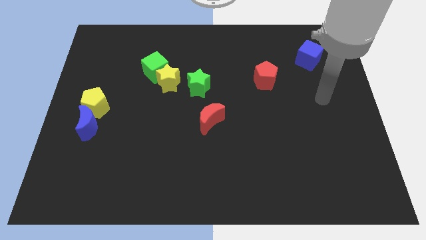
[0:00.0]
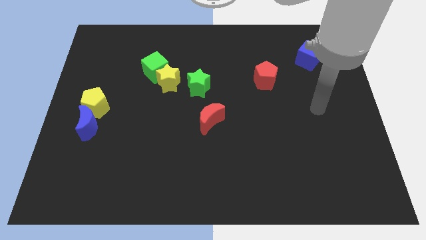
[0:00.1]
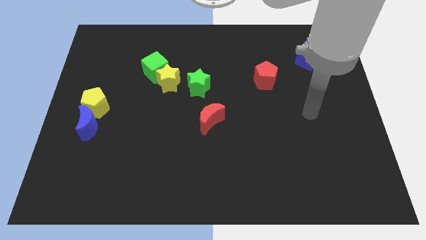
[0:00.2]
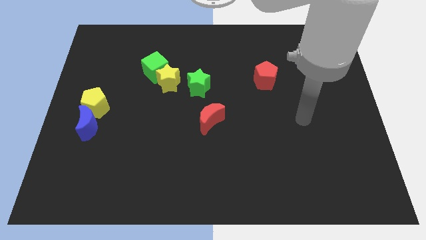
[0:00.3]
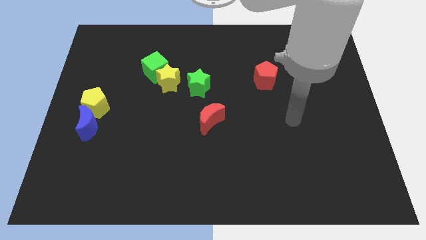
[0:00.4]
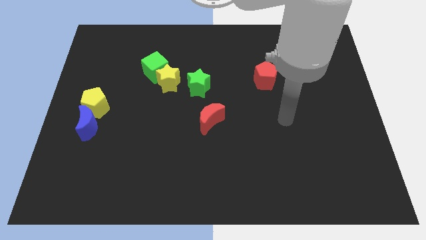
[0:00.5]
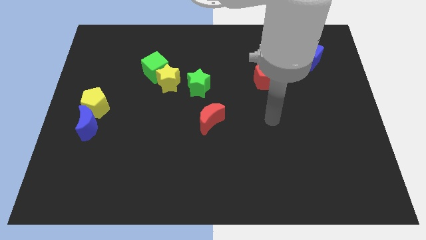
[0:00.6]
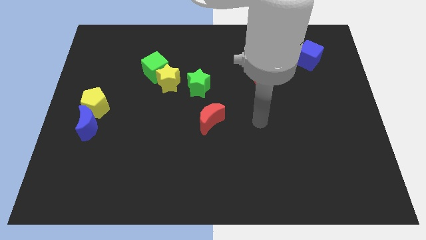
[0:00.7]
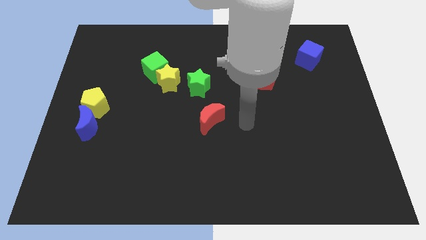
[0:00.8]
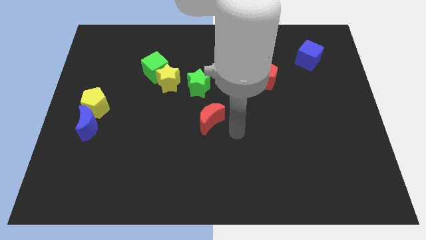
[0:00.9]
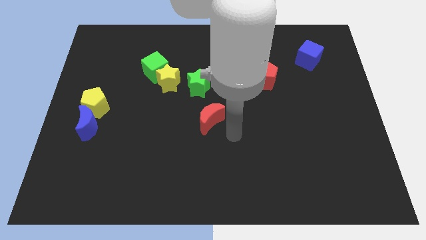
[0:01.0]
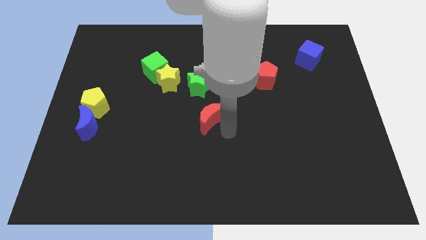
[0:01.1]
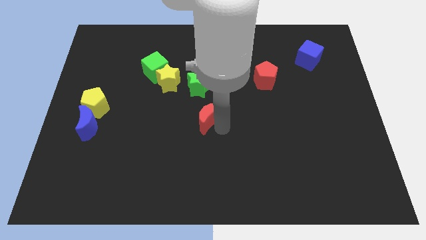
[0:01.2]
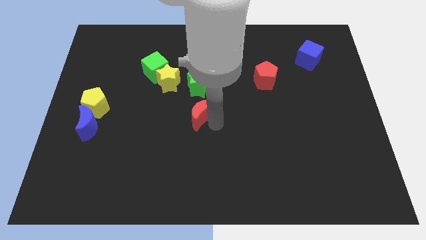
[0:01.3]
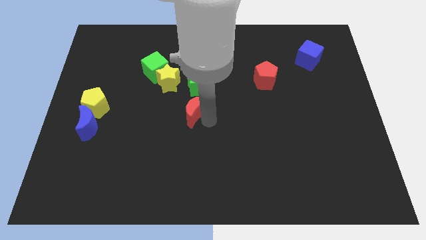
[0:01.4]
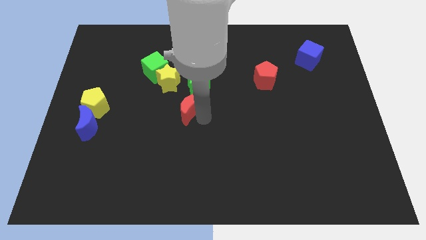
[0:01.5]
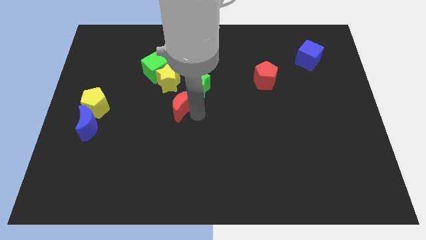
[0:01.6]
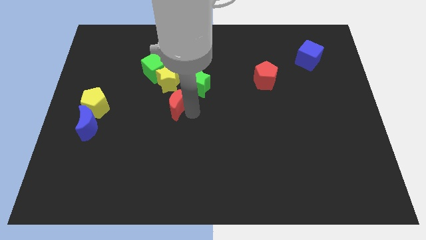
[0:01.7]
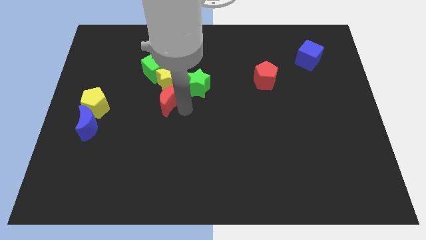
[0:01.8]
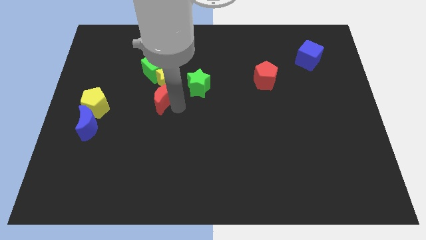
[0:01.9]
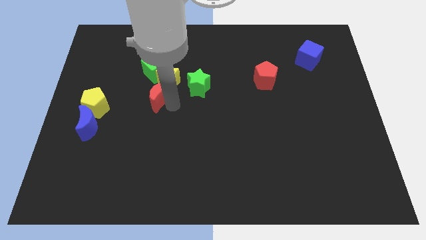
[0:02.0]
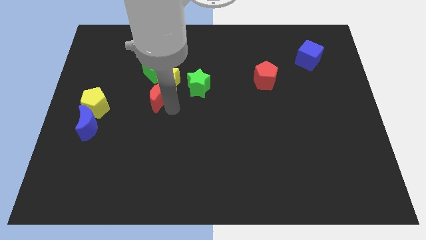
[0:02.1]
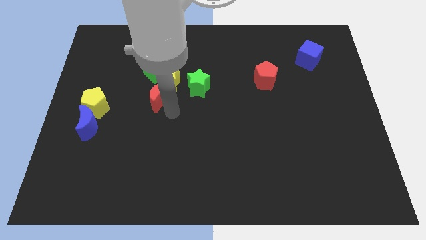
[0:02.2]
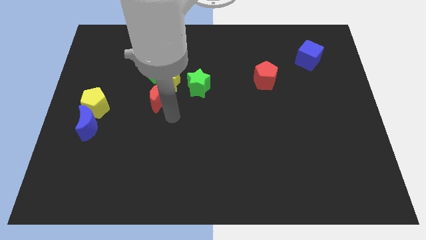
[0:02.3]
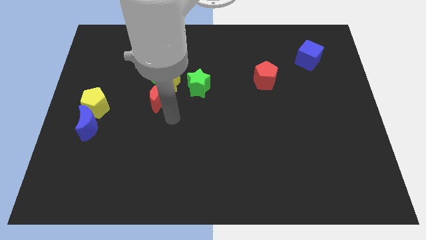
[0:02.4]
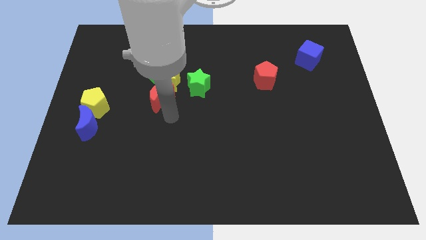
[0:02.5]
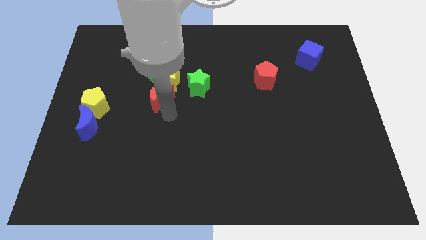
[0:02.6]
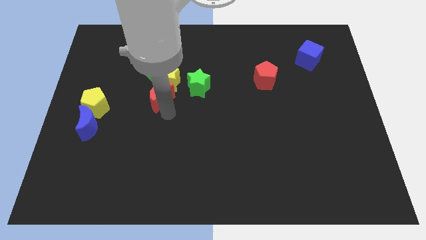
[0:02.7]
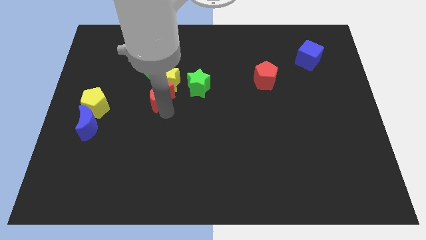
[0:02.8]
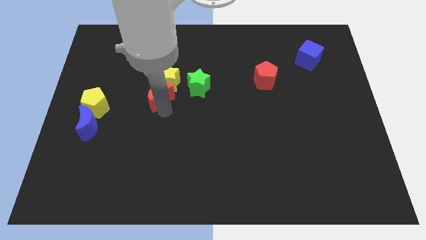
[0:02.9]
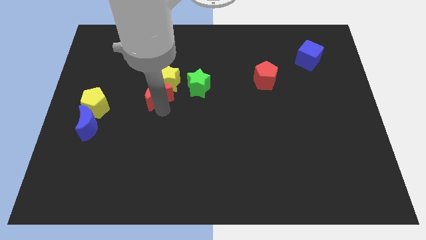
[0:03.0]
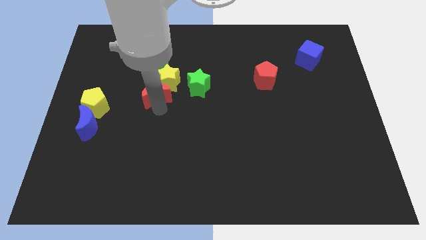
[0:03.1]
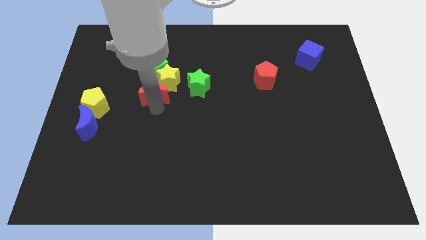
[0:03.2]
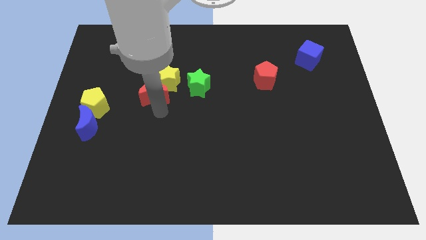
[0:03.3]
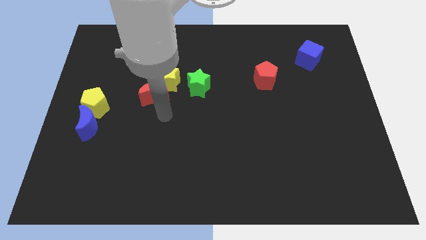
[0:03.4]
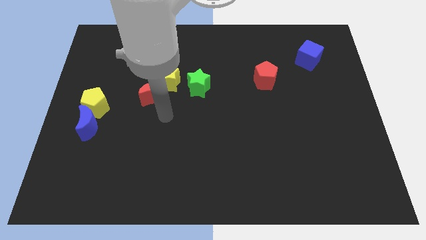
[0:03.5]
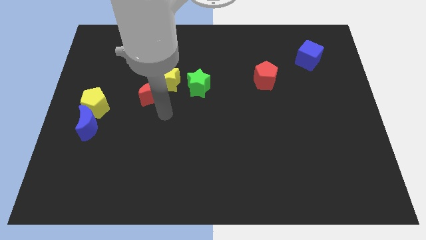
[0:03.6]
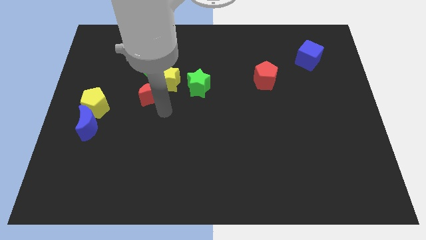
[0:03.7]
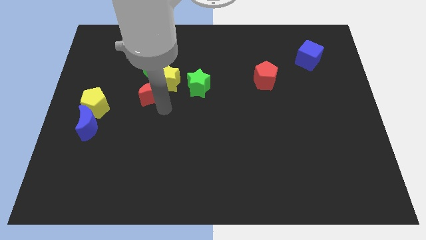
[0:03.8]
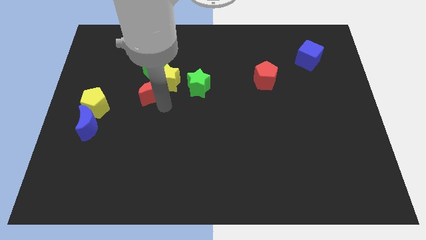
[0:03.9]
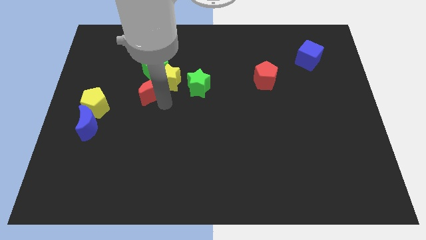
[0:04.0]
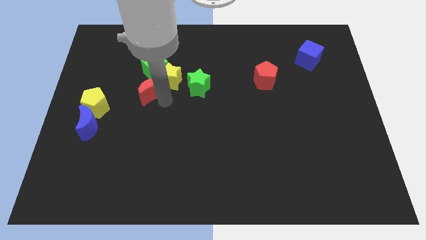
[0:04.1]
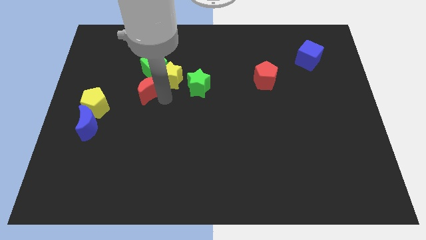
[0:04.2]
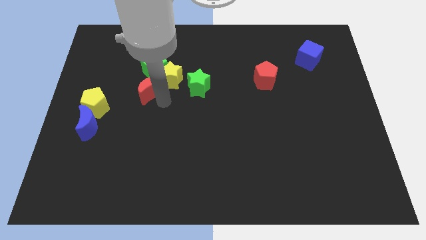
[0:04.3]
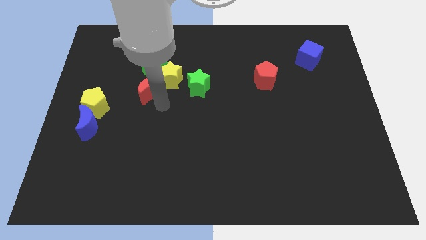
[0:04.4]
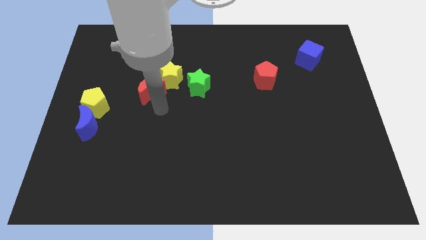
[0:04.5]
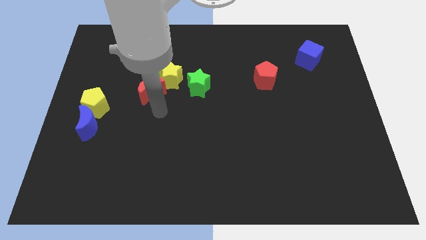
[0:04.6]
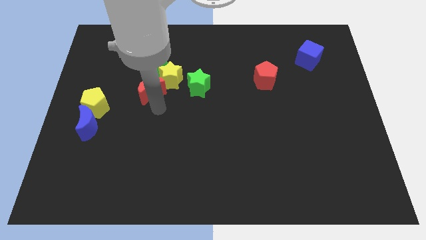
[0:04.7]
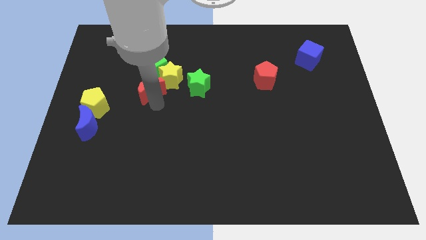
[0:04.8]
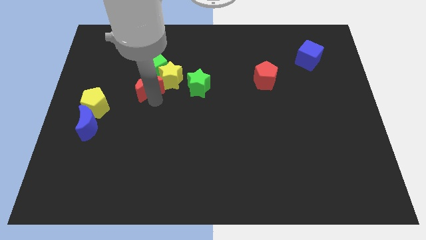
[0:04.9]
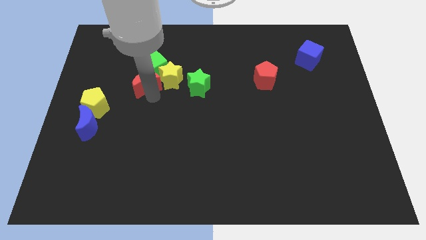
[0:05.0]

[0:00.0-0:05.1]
put the red moon towards the green cube

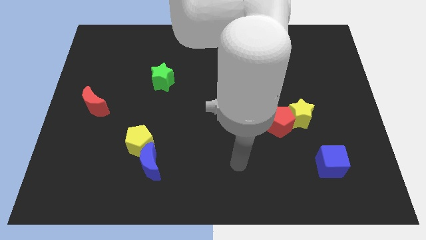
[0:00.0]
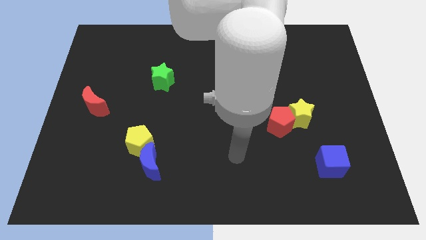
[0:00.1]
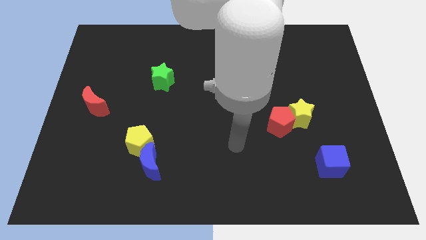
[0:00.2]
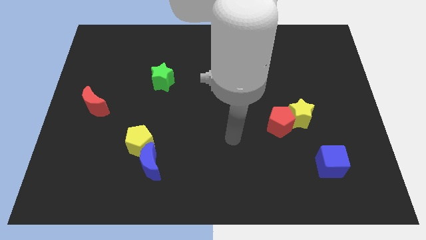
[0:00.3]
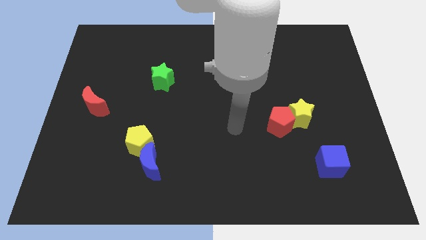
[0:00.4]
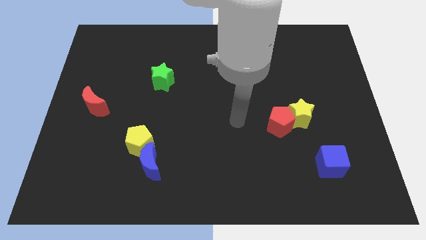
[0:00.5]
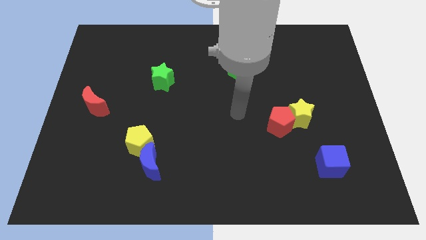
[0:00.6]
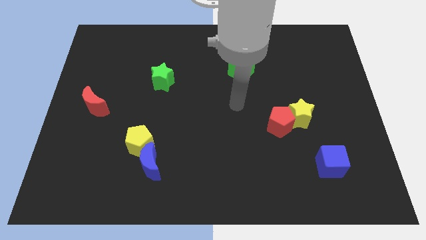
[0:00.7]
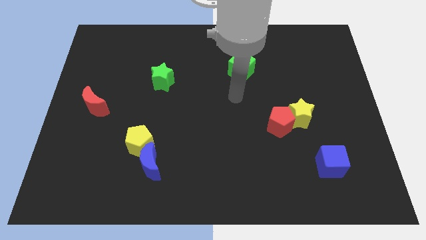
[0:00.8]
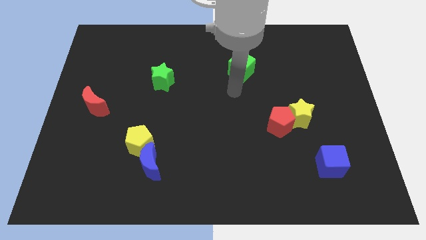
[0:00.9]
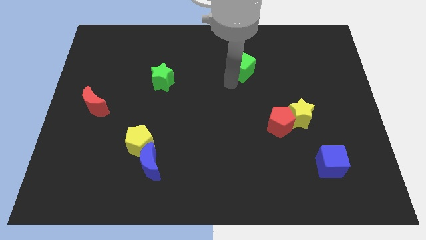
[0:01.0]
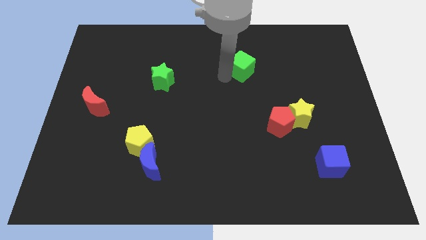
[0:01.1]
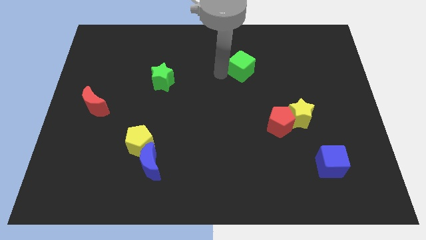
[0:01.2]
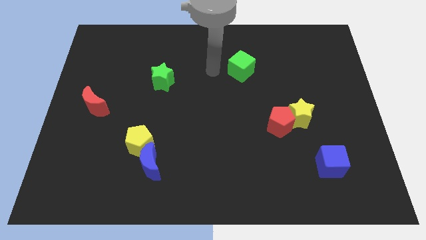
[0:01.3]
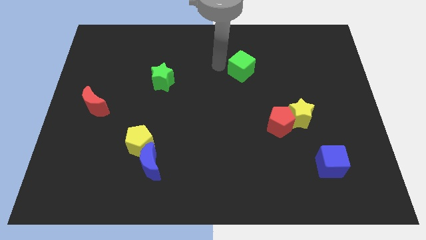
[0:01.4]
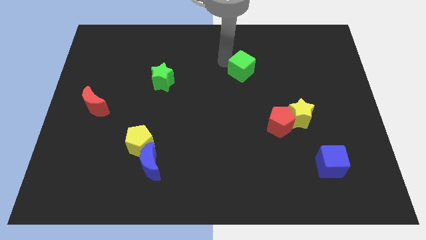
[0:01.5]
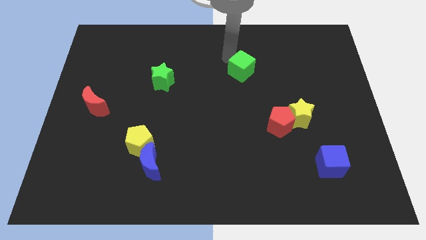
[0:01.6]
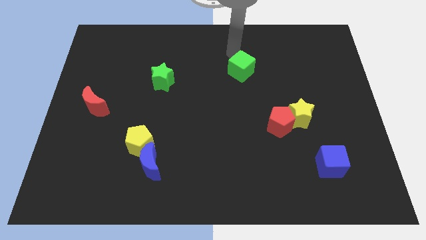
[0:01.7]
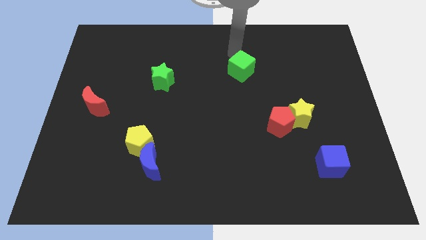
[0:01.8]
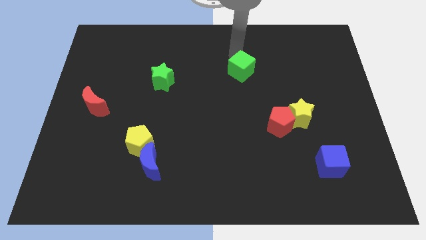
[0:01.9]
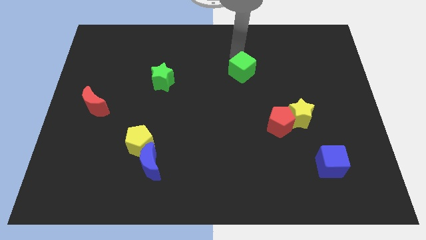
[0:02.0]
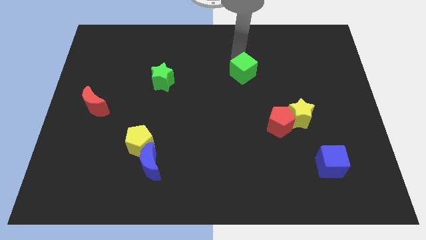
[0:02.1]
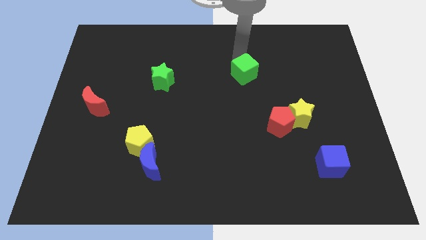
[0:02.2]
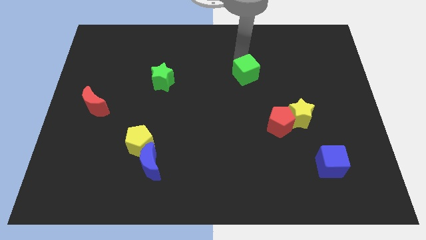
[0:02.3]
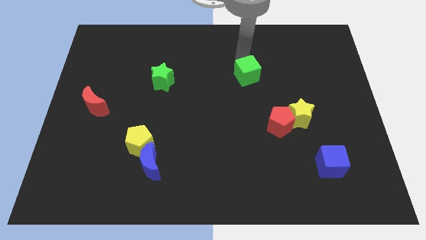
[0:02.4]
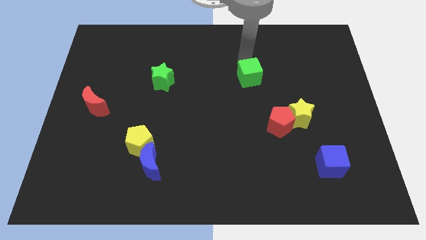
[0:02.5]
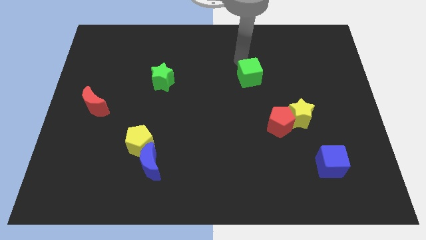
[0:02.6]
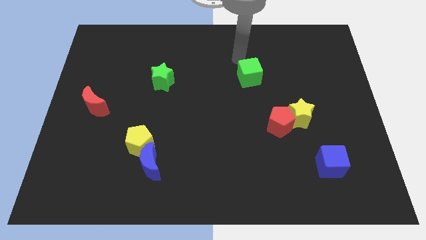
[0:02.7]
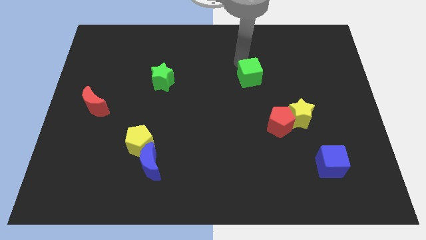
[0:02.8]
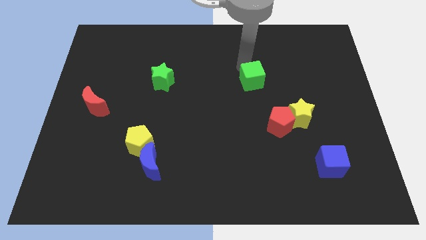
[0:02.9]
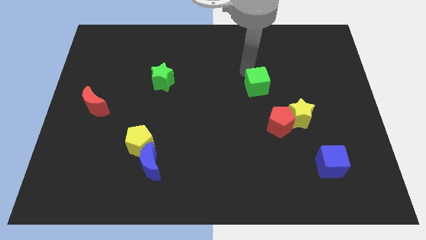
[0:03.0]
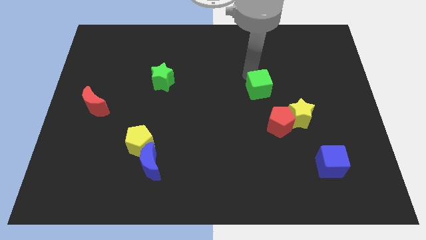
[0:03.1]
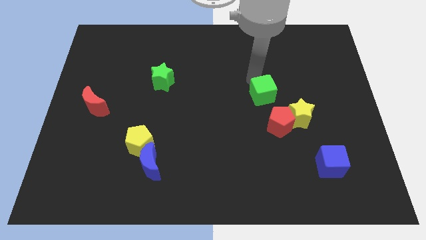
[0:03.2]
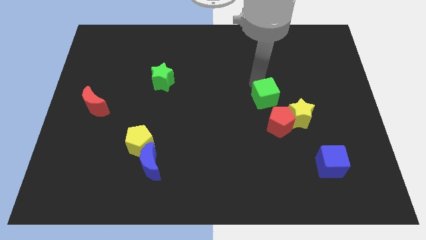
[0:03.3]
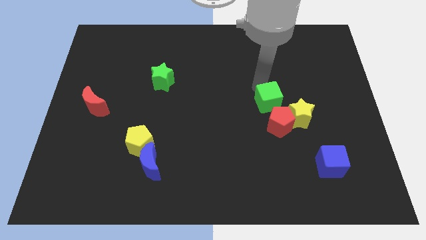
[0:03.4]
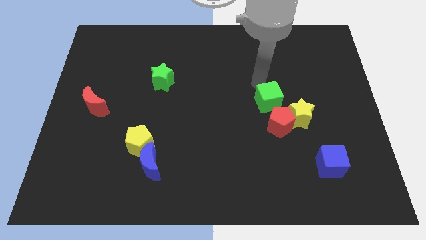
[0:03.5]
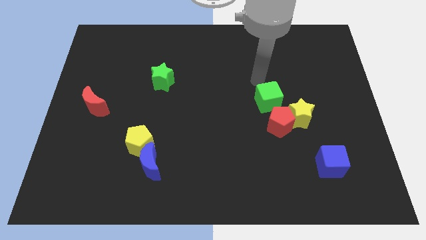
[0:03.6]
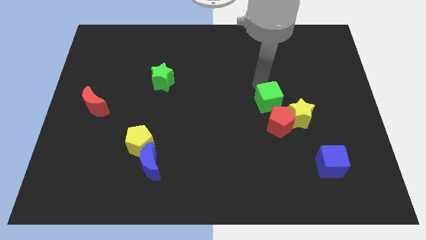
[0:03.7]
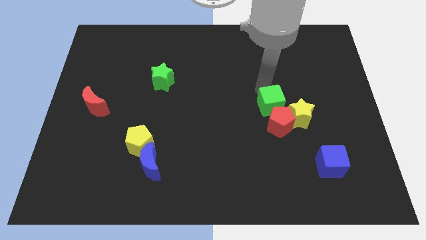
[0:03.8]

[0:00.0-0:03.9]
slide the green cube to the red pentagon
